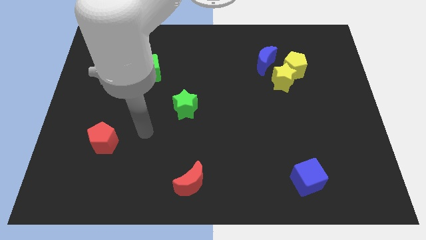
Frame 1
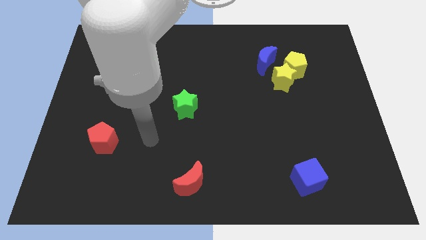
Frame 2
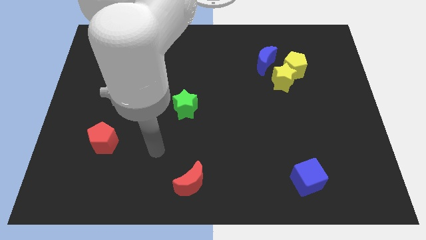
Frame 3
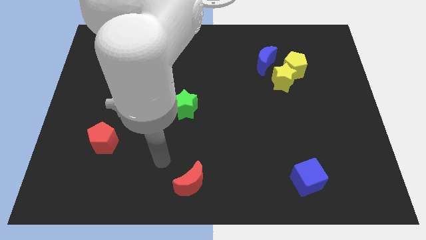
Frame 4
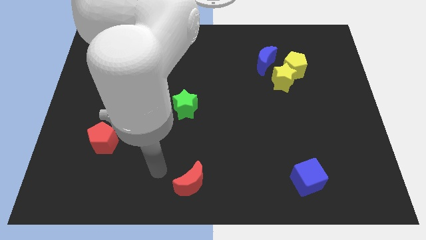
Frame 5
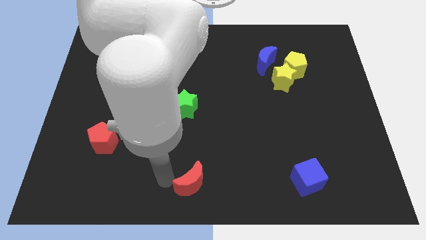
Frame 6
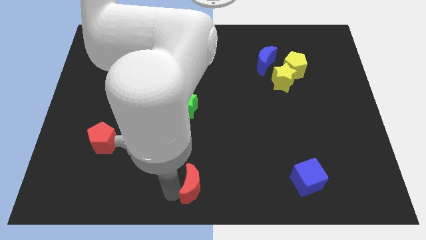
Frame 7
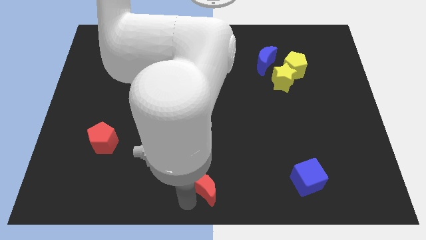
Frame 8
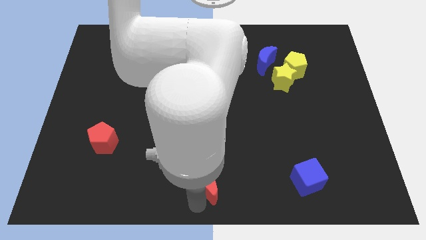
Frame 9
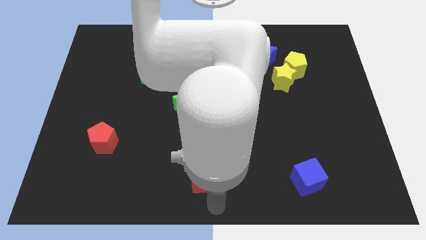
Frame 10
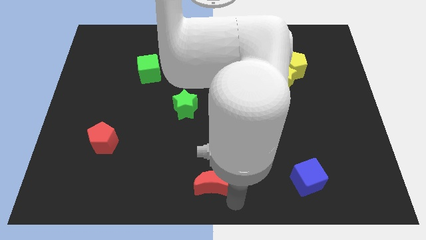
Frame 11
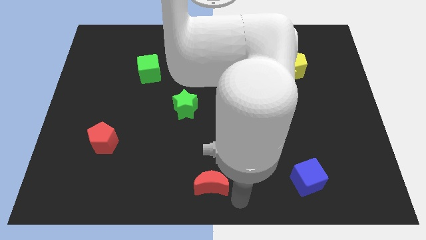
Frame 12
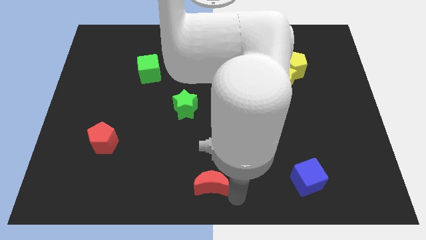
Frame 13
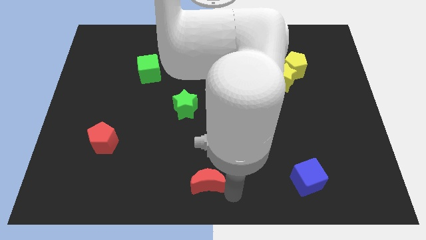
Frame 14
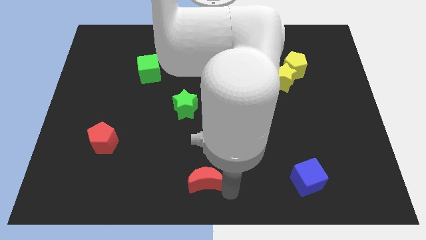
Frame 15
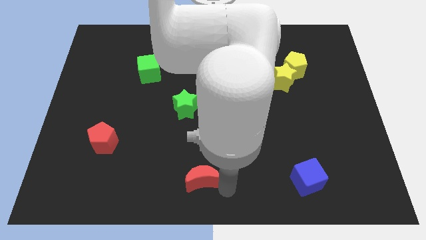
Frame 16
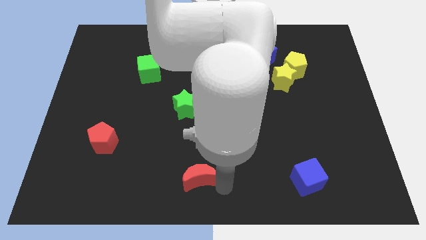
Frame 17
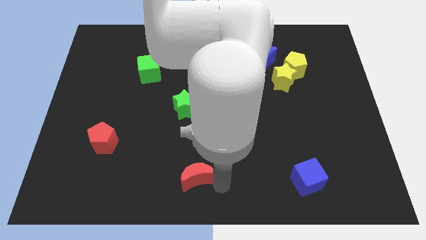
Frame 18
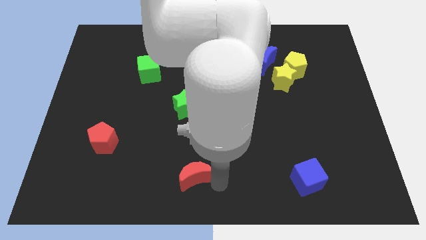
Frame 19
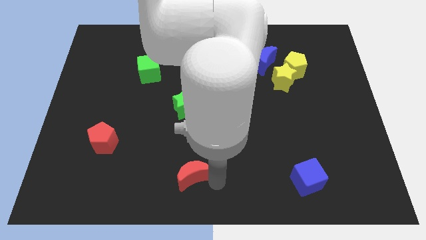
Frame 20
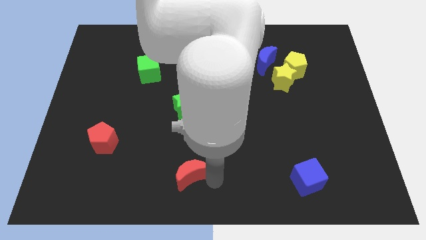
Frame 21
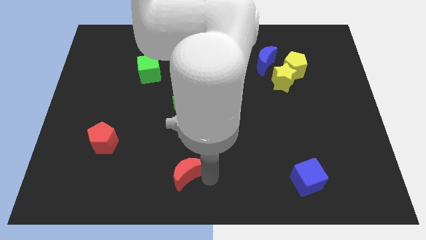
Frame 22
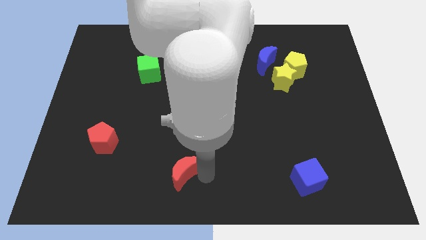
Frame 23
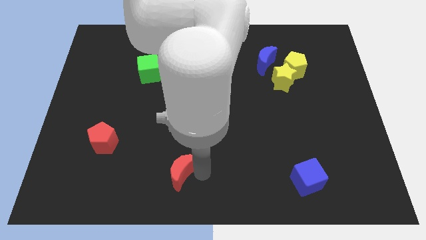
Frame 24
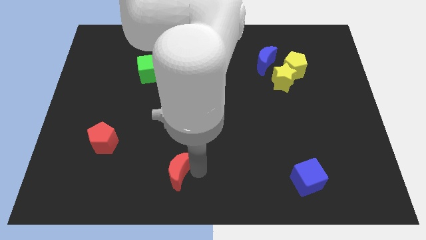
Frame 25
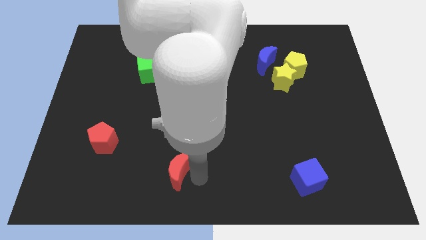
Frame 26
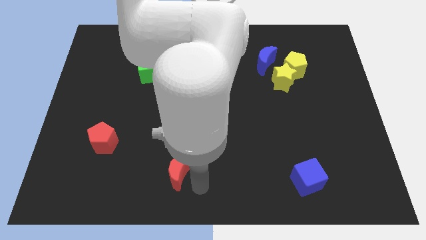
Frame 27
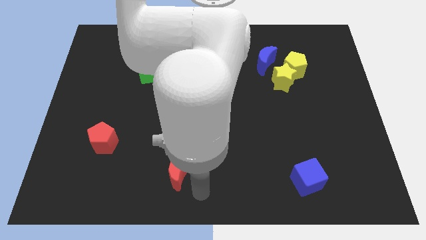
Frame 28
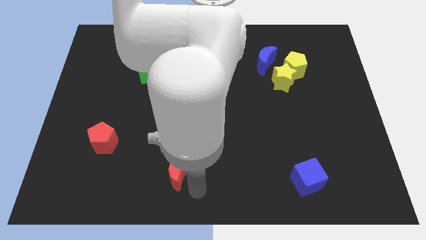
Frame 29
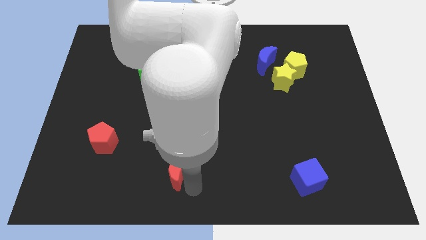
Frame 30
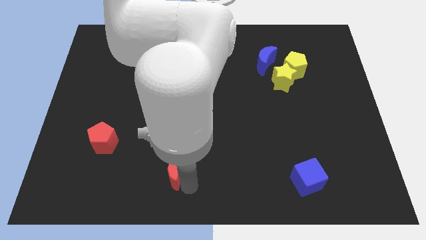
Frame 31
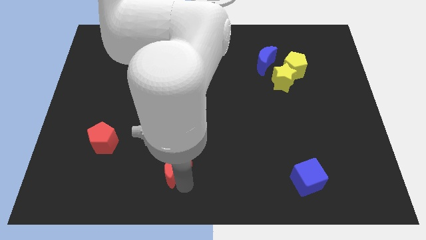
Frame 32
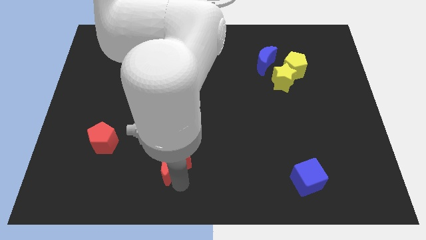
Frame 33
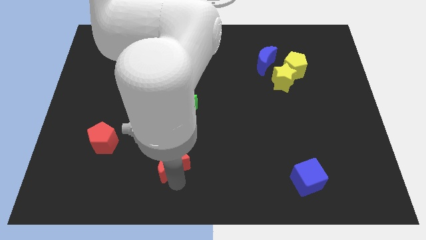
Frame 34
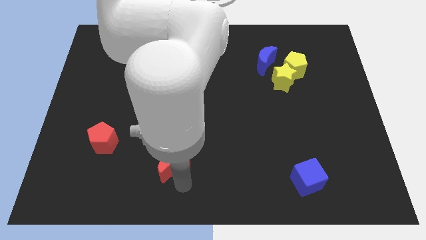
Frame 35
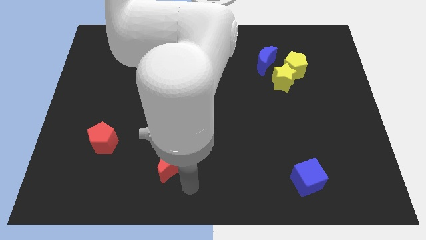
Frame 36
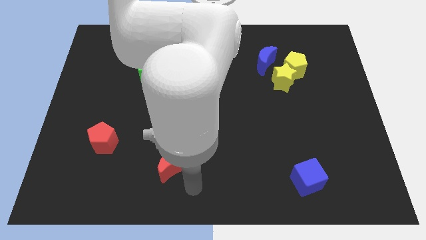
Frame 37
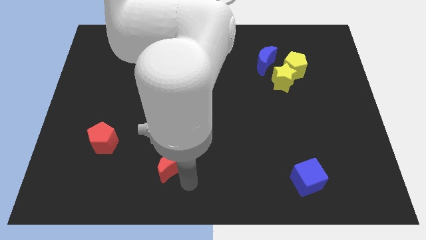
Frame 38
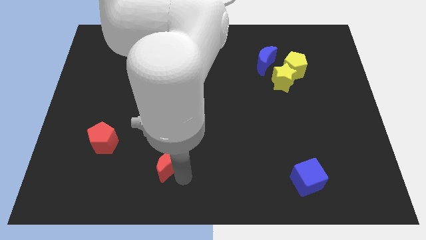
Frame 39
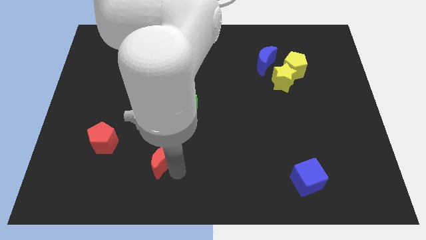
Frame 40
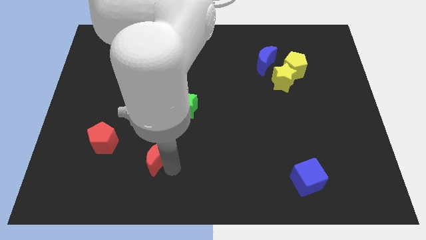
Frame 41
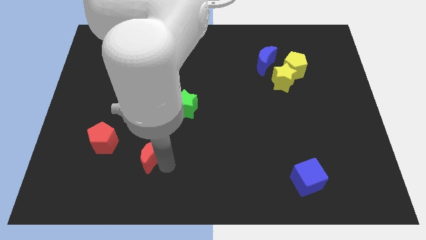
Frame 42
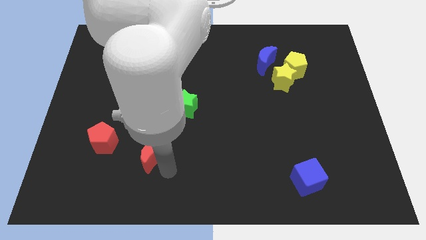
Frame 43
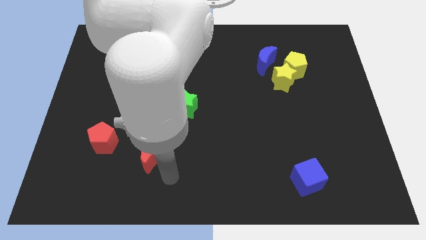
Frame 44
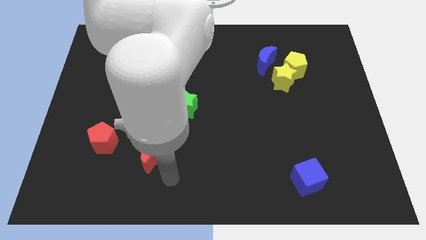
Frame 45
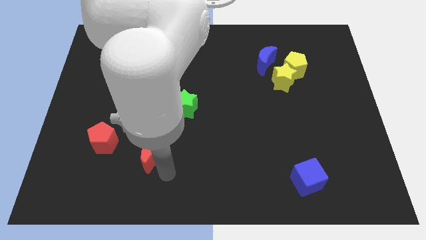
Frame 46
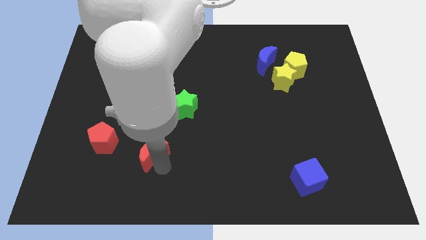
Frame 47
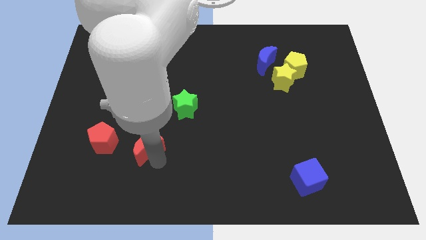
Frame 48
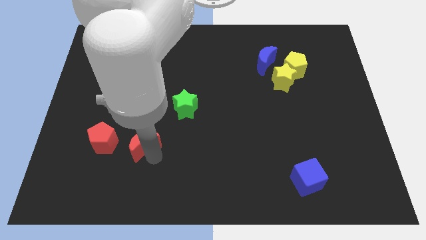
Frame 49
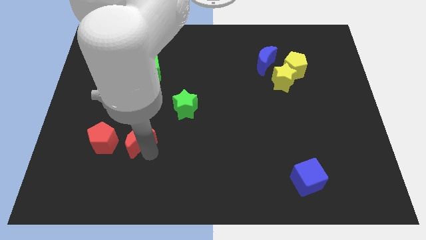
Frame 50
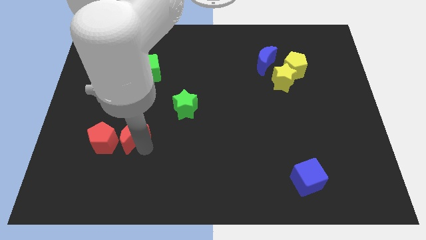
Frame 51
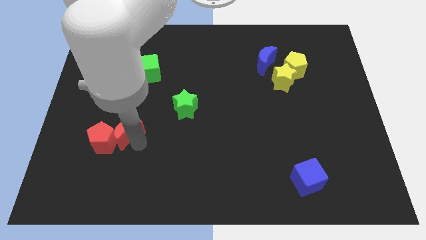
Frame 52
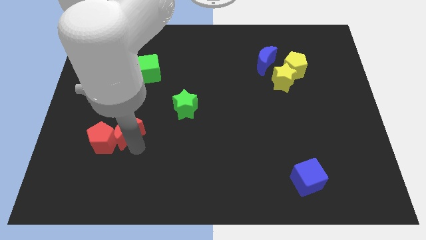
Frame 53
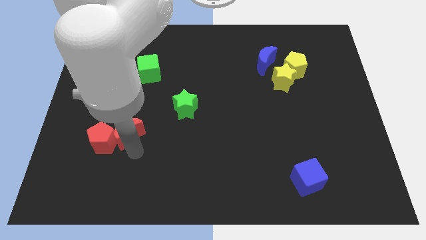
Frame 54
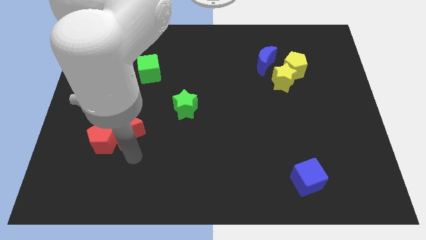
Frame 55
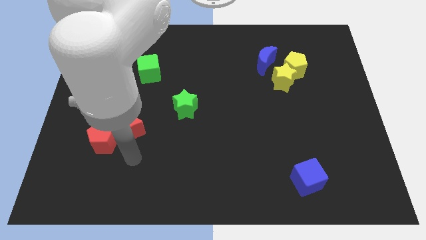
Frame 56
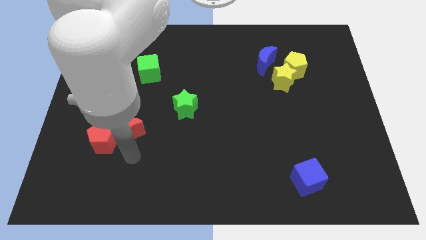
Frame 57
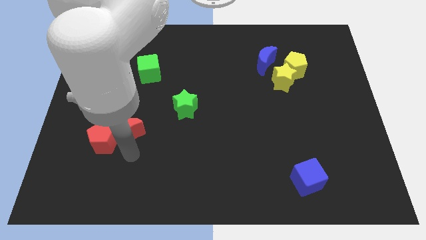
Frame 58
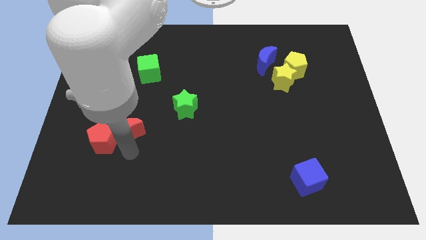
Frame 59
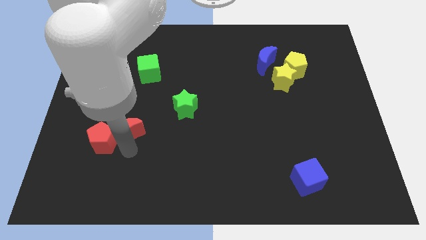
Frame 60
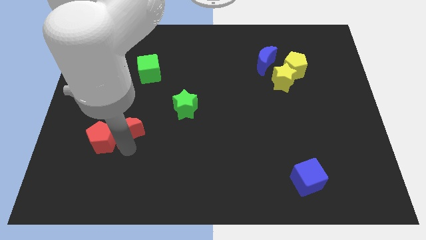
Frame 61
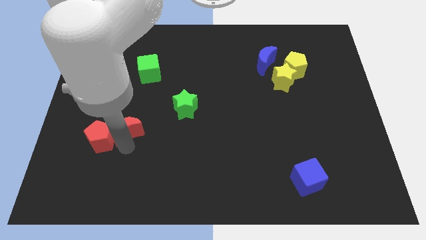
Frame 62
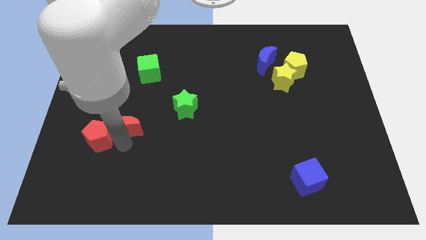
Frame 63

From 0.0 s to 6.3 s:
slide the red moon up and then left

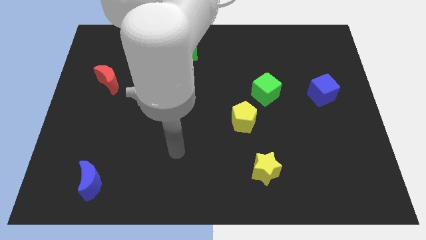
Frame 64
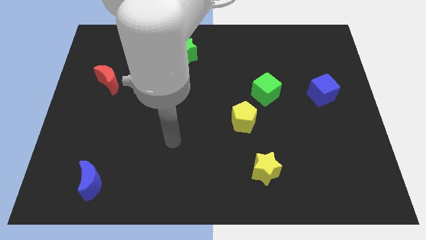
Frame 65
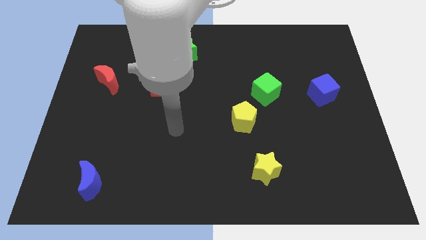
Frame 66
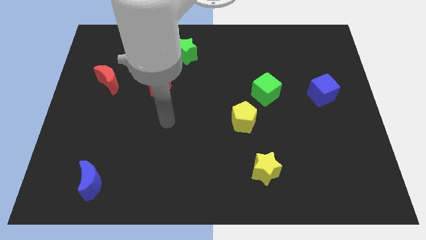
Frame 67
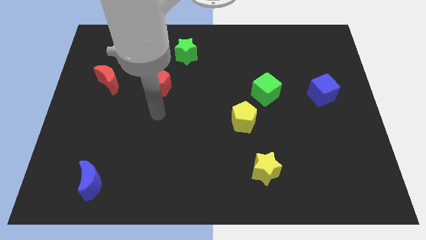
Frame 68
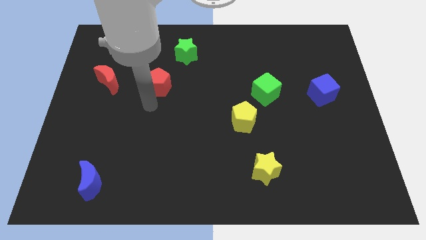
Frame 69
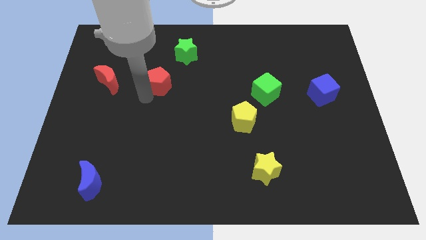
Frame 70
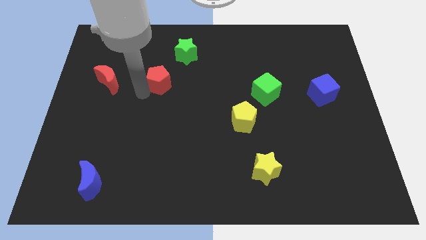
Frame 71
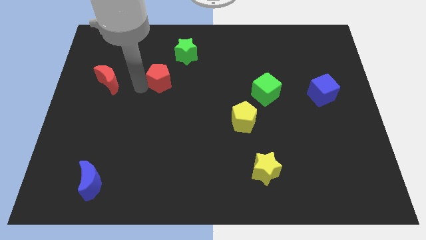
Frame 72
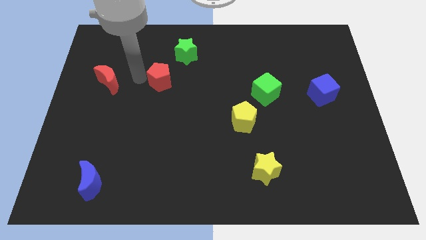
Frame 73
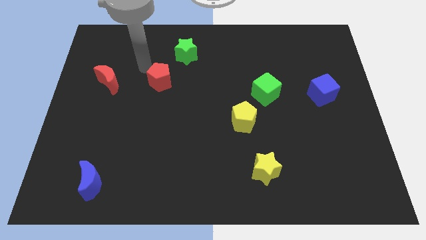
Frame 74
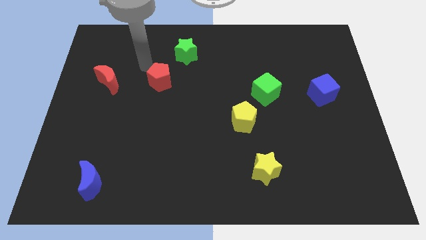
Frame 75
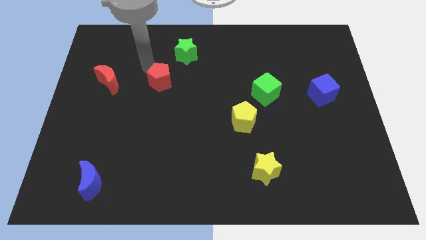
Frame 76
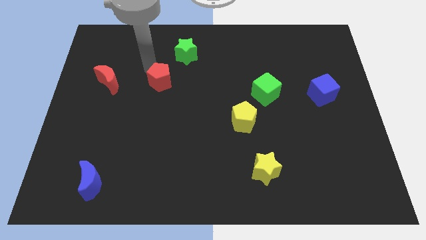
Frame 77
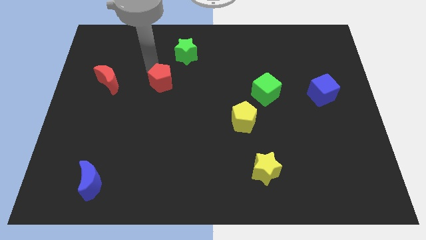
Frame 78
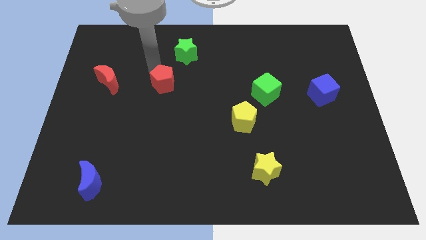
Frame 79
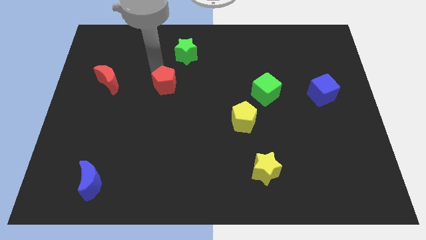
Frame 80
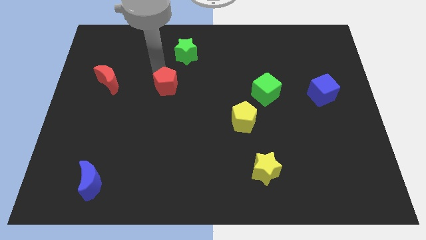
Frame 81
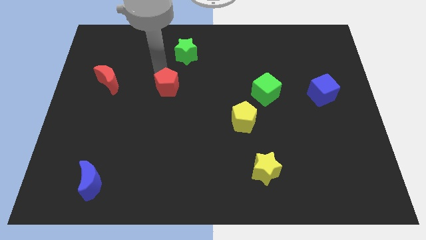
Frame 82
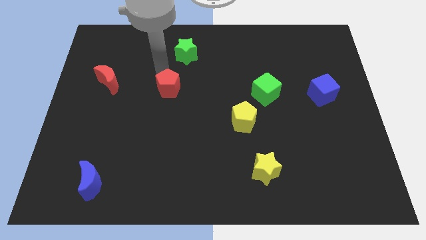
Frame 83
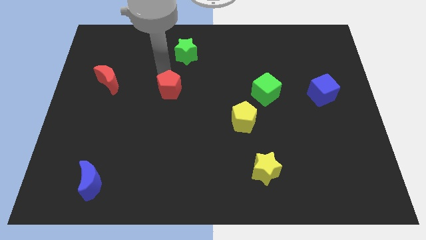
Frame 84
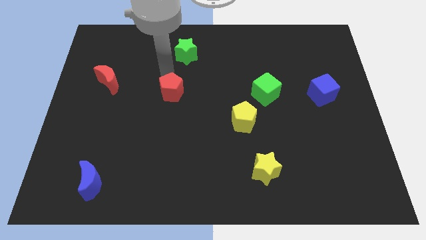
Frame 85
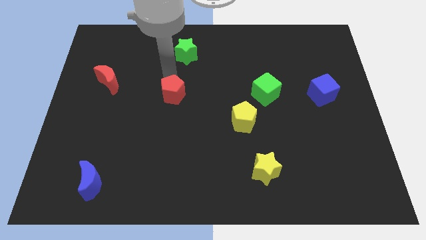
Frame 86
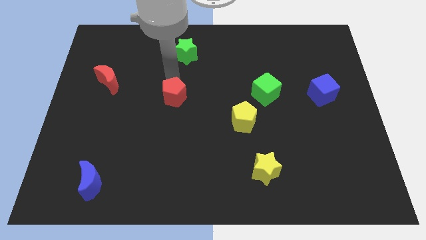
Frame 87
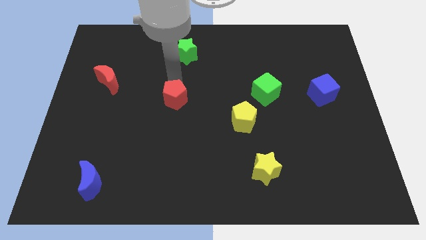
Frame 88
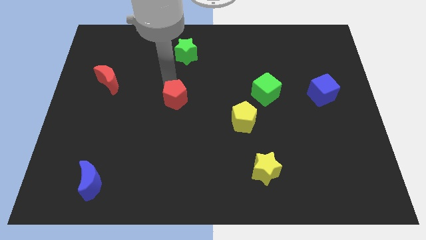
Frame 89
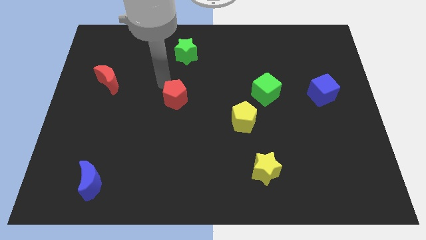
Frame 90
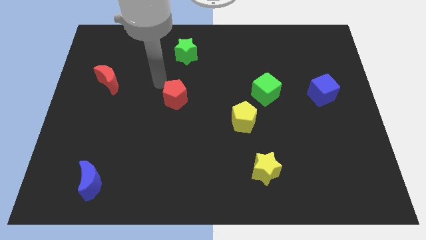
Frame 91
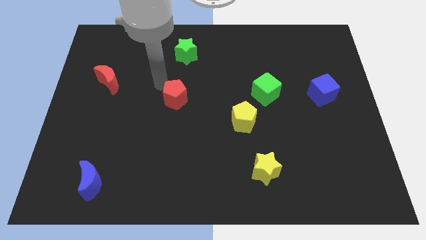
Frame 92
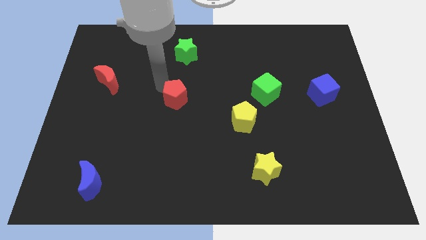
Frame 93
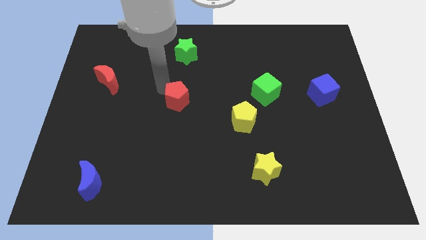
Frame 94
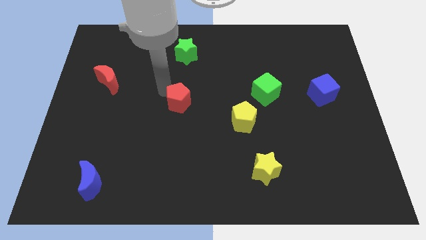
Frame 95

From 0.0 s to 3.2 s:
push the red pentagon downwards and right diagonally slightly
